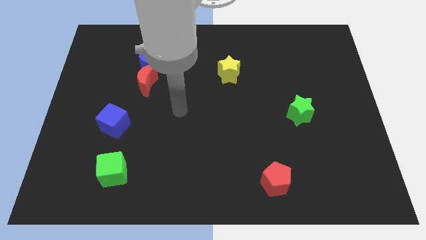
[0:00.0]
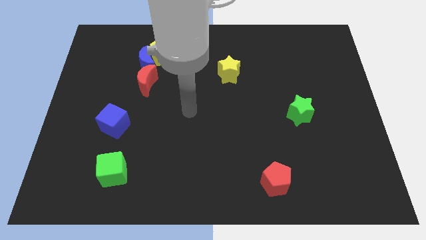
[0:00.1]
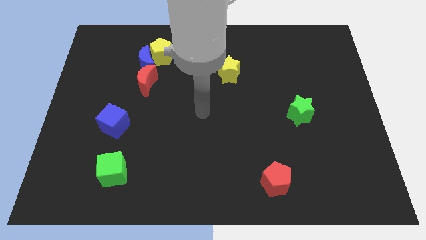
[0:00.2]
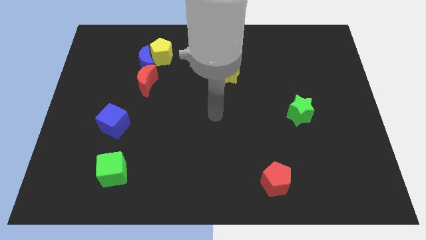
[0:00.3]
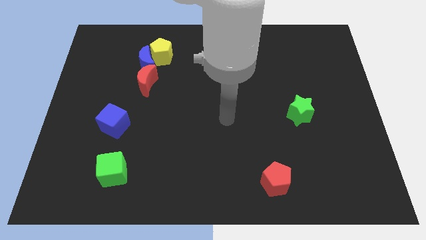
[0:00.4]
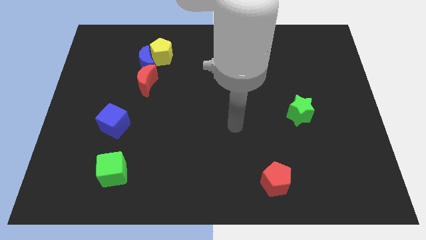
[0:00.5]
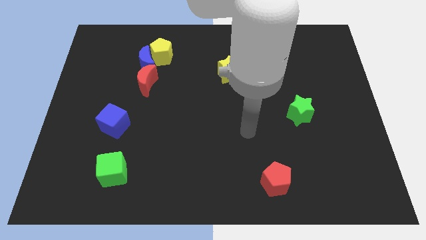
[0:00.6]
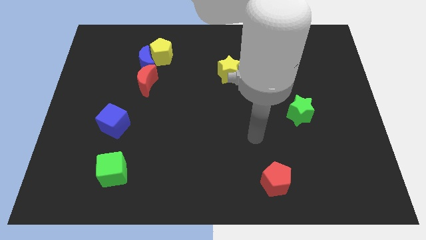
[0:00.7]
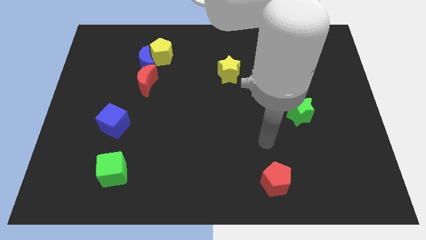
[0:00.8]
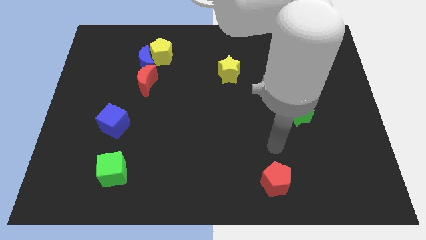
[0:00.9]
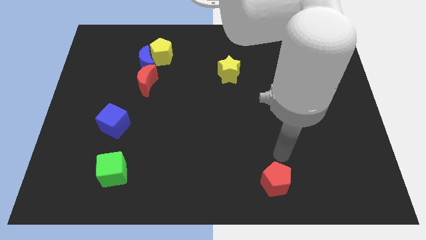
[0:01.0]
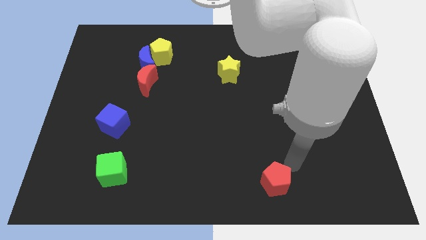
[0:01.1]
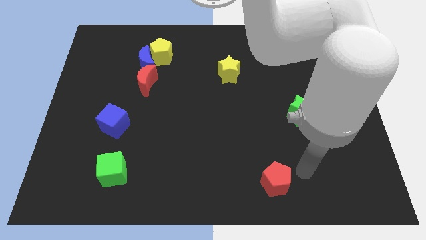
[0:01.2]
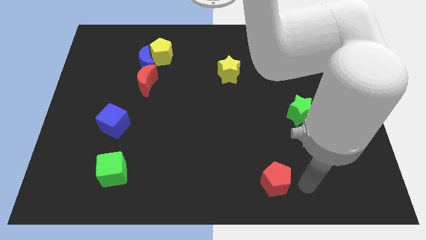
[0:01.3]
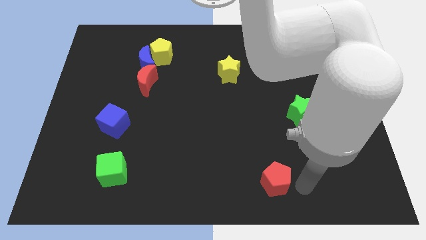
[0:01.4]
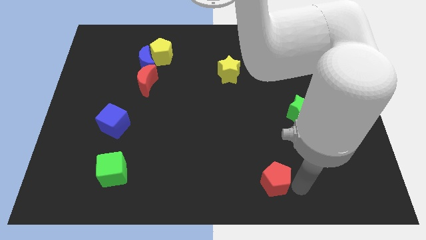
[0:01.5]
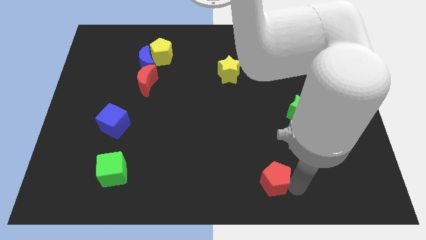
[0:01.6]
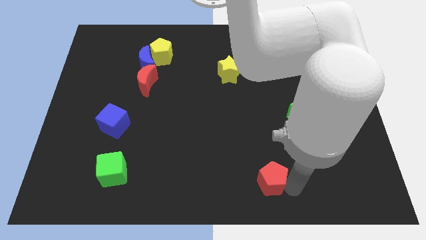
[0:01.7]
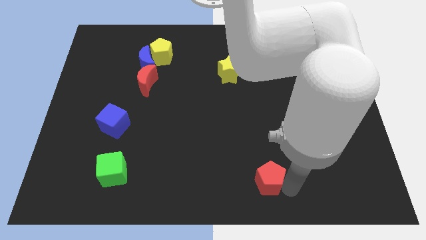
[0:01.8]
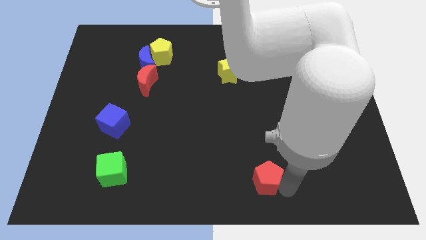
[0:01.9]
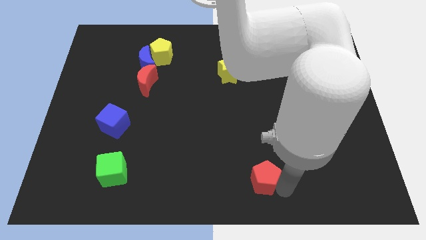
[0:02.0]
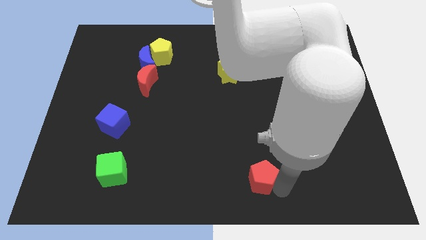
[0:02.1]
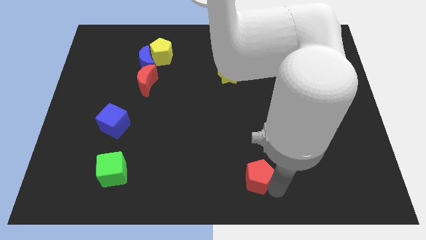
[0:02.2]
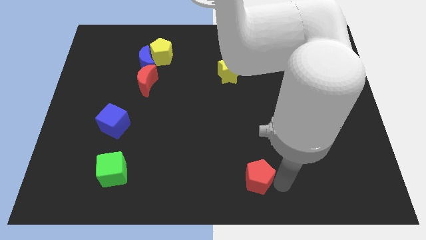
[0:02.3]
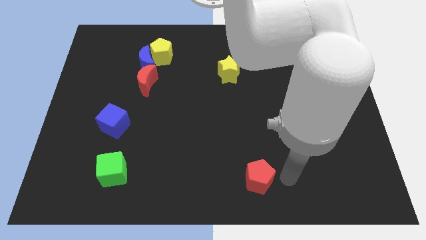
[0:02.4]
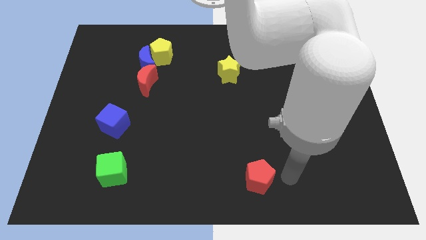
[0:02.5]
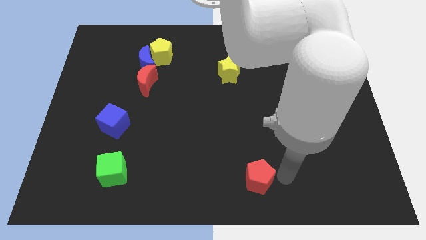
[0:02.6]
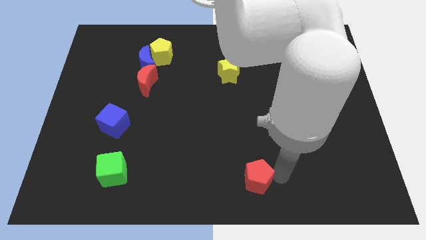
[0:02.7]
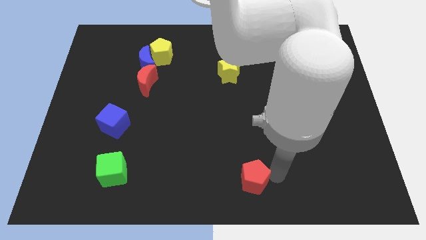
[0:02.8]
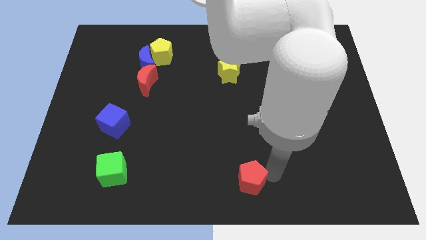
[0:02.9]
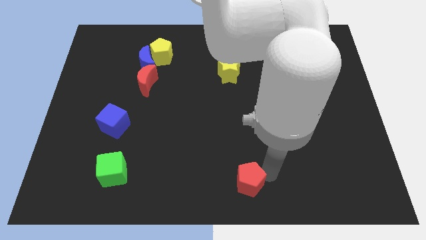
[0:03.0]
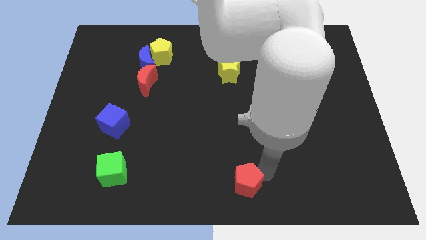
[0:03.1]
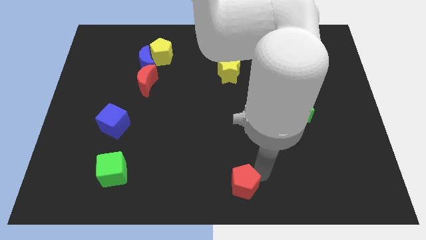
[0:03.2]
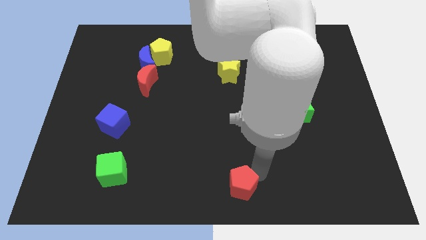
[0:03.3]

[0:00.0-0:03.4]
push the red pentagon left slightly

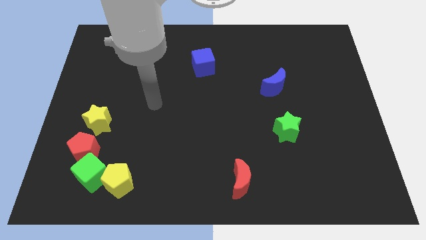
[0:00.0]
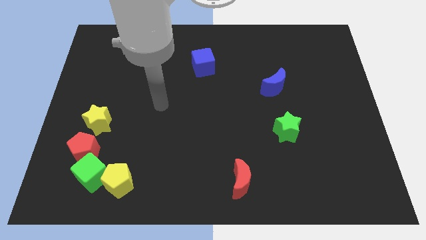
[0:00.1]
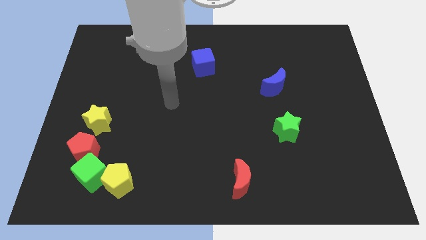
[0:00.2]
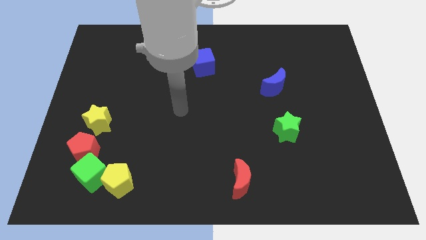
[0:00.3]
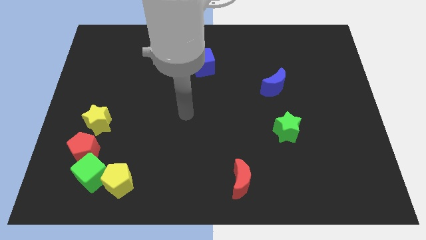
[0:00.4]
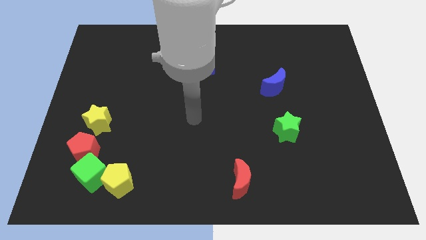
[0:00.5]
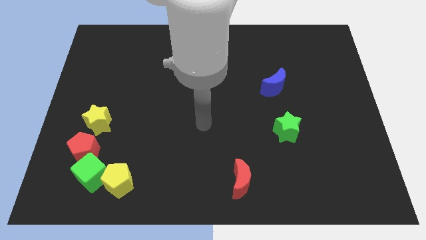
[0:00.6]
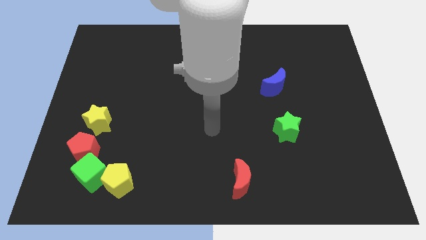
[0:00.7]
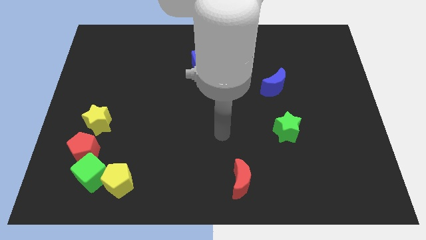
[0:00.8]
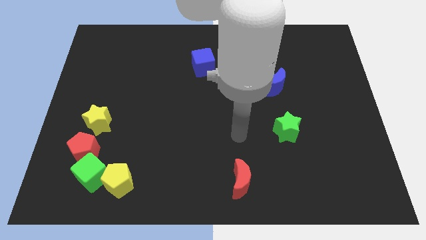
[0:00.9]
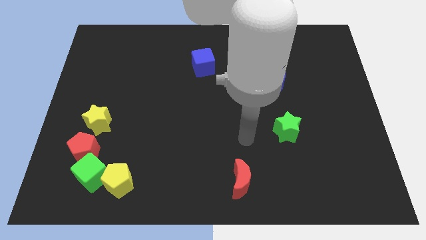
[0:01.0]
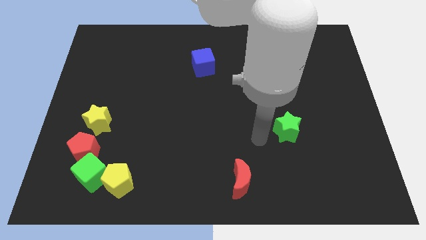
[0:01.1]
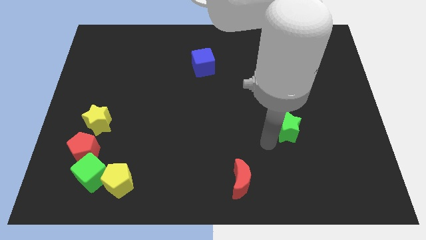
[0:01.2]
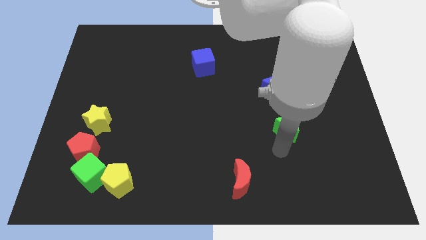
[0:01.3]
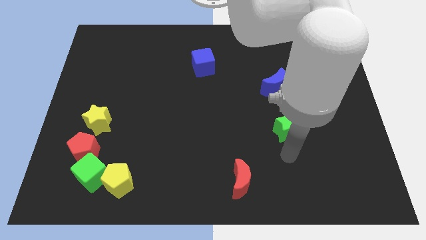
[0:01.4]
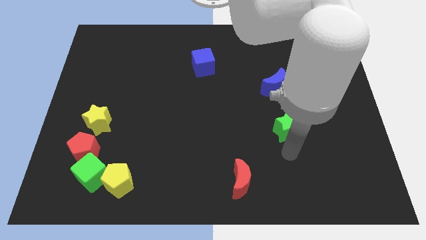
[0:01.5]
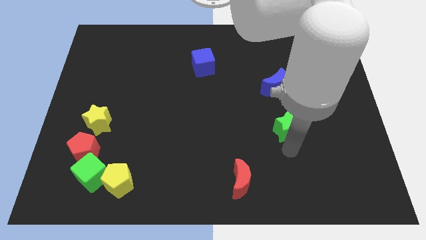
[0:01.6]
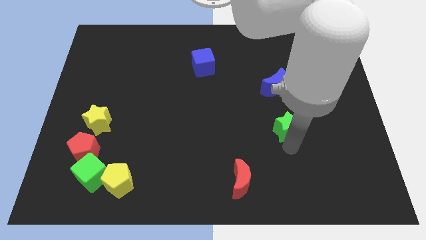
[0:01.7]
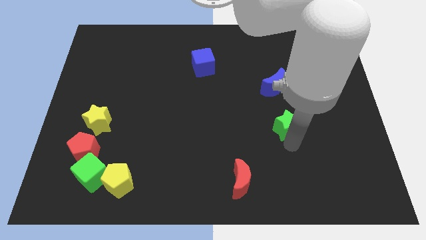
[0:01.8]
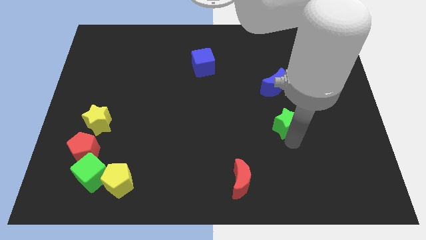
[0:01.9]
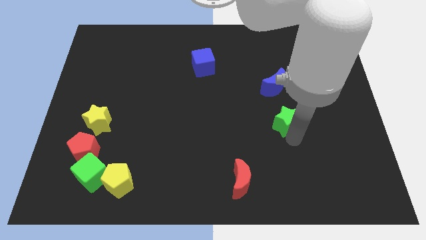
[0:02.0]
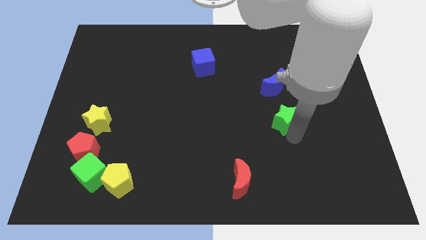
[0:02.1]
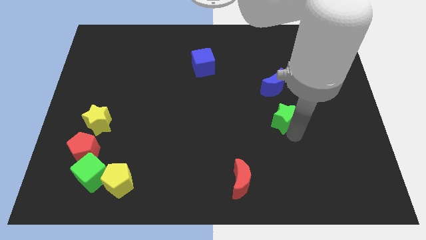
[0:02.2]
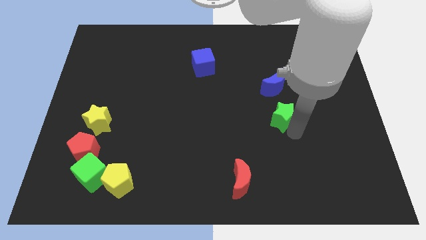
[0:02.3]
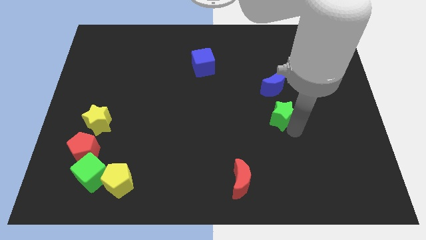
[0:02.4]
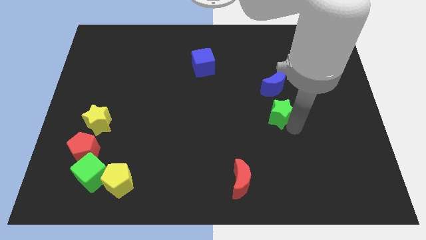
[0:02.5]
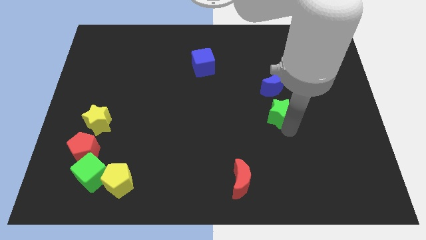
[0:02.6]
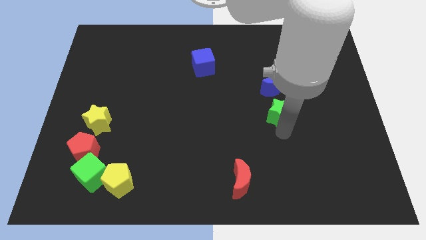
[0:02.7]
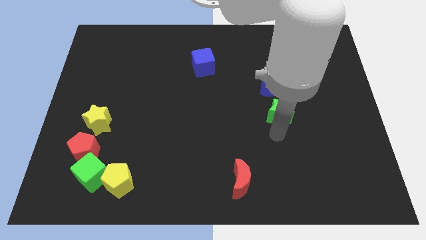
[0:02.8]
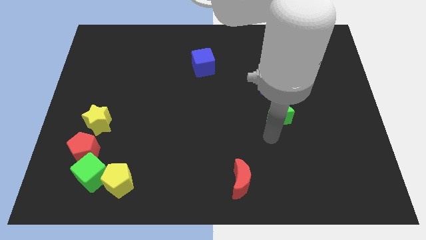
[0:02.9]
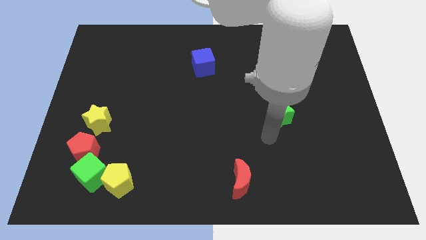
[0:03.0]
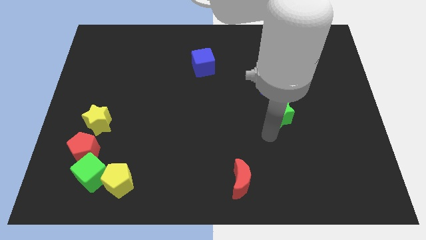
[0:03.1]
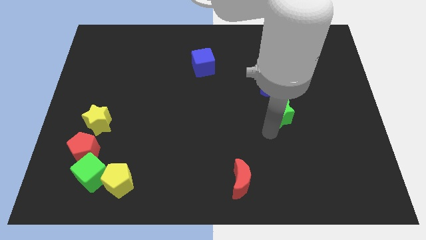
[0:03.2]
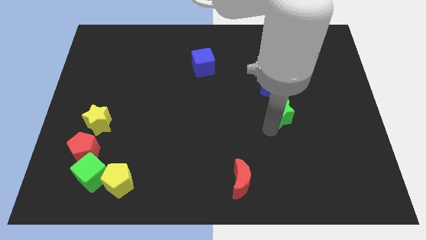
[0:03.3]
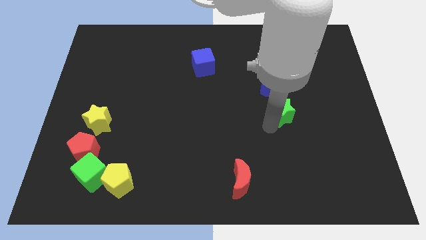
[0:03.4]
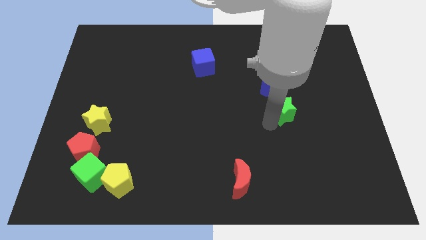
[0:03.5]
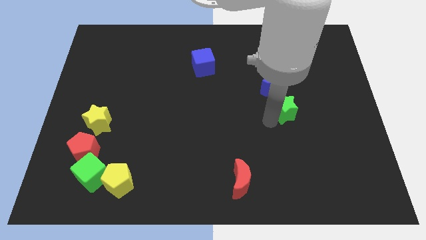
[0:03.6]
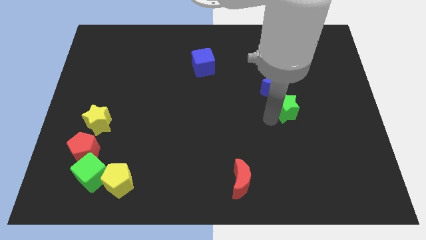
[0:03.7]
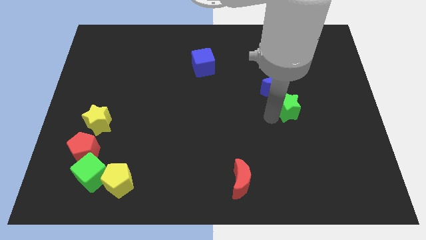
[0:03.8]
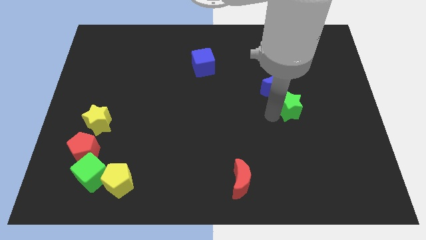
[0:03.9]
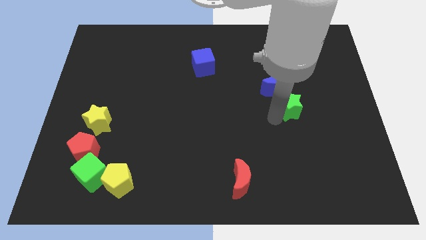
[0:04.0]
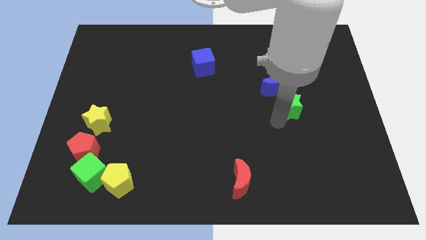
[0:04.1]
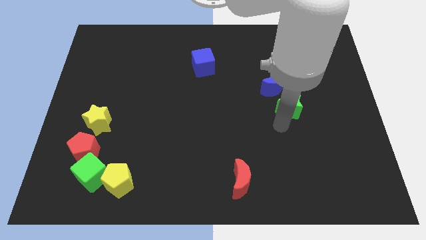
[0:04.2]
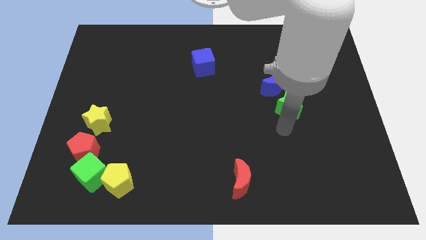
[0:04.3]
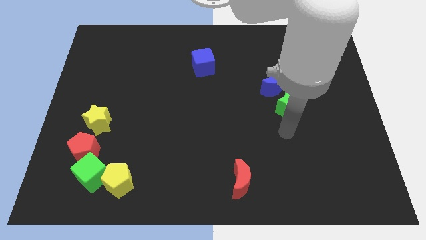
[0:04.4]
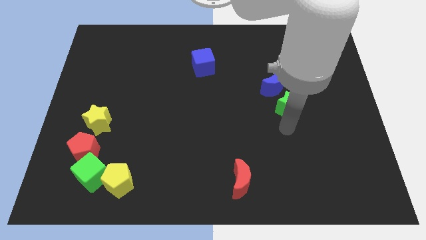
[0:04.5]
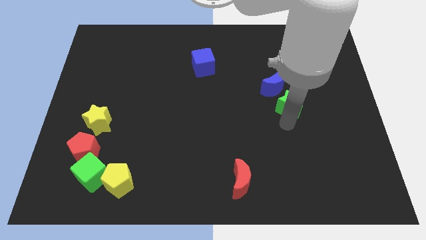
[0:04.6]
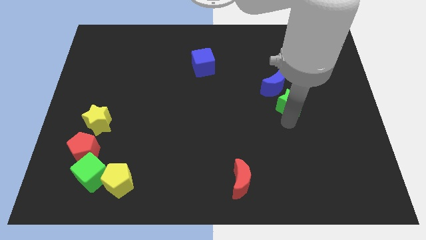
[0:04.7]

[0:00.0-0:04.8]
slide the green star a little bit up
